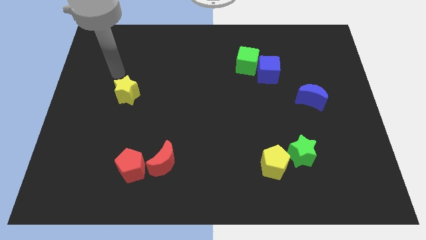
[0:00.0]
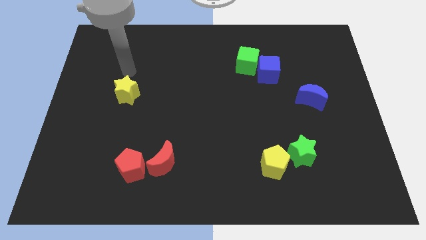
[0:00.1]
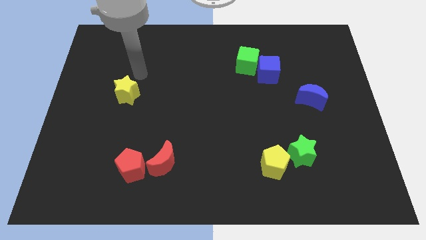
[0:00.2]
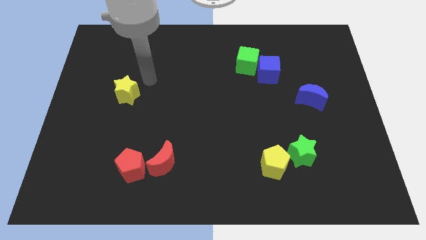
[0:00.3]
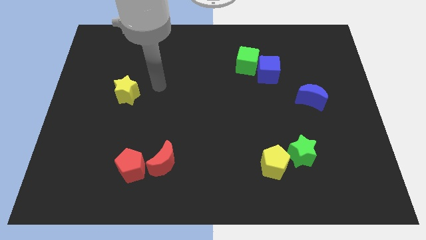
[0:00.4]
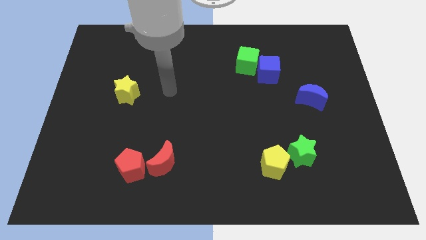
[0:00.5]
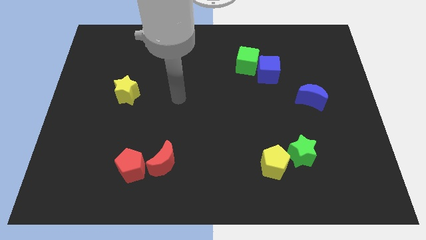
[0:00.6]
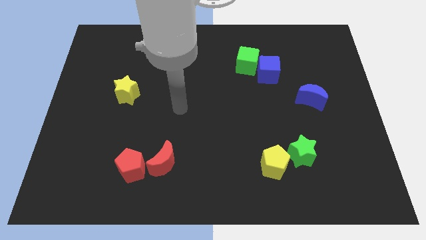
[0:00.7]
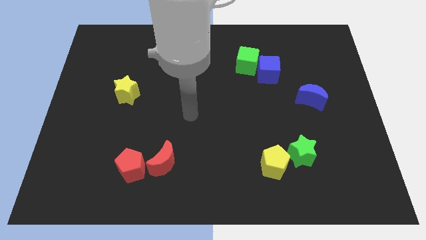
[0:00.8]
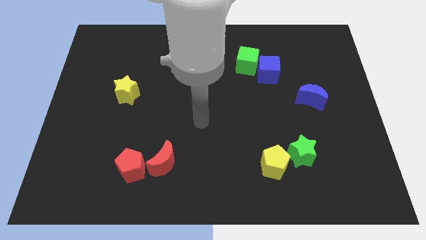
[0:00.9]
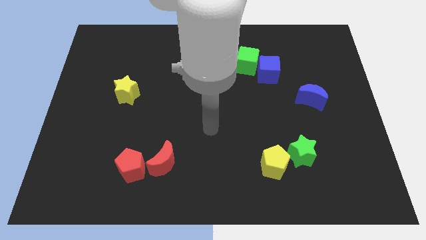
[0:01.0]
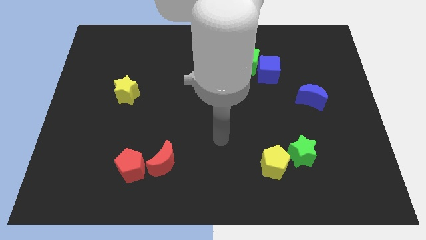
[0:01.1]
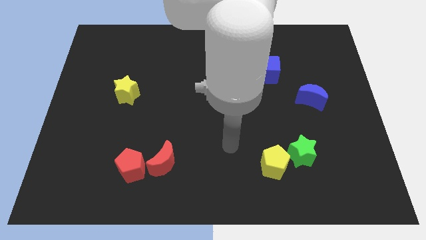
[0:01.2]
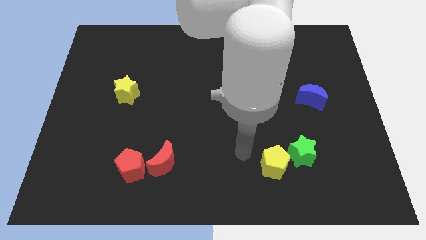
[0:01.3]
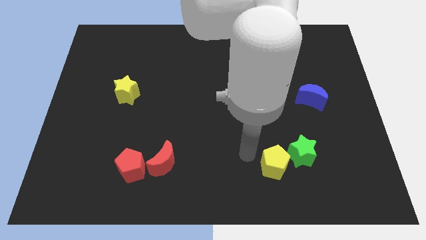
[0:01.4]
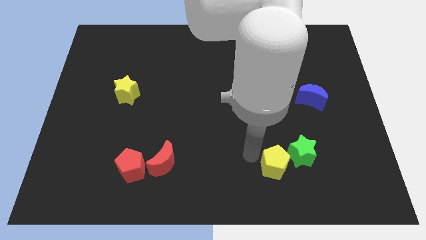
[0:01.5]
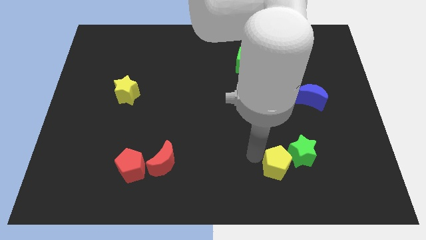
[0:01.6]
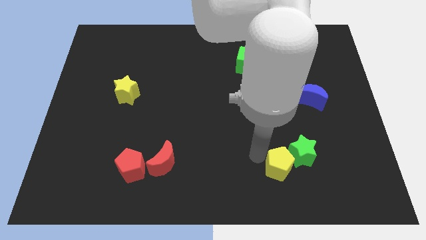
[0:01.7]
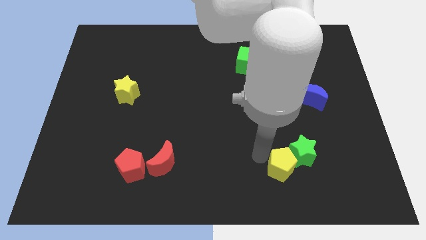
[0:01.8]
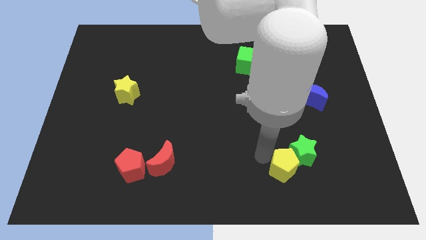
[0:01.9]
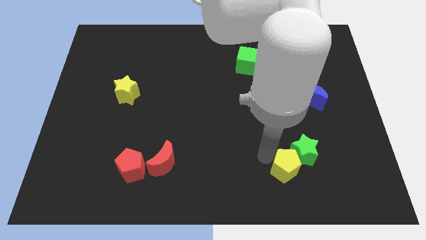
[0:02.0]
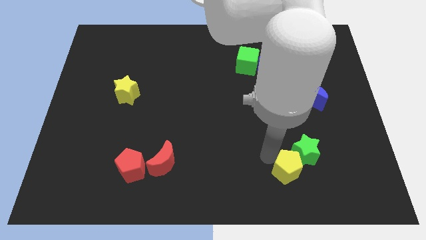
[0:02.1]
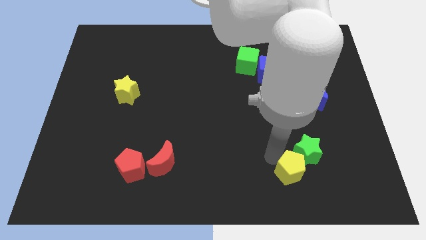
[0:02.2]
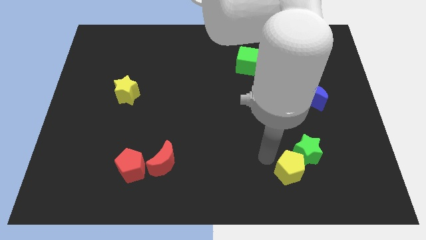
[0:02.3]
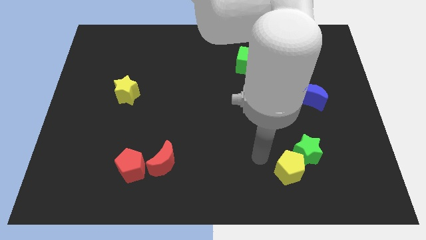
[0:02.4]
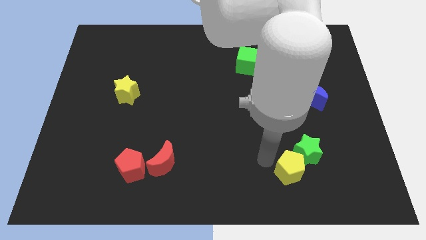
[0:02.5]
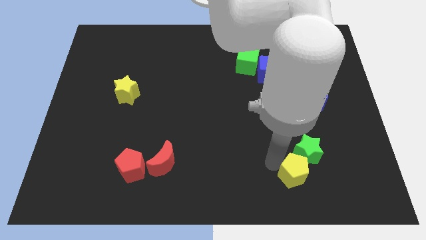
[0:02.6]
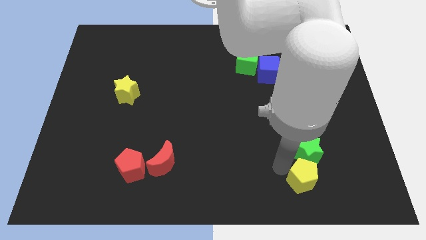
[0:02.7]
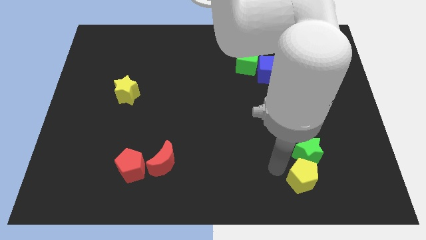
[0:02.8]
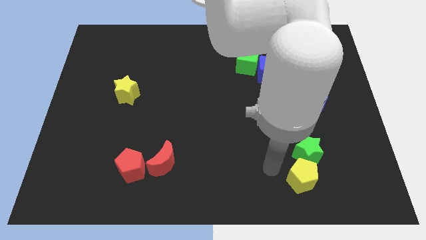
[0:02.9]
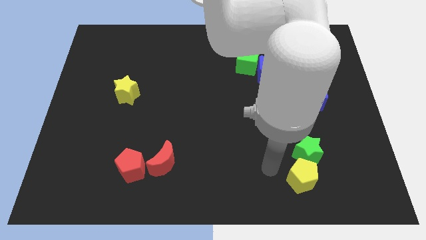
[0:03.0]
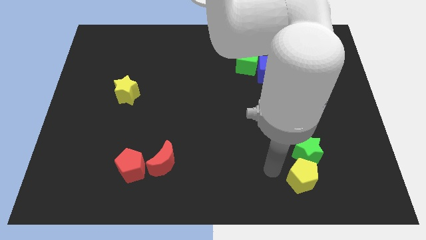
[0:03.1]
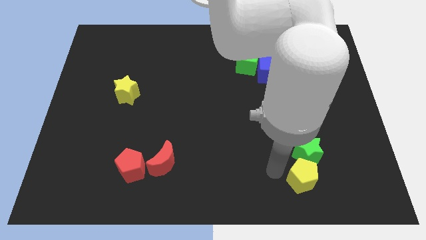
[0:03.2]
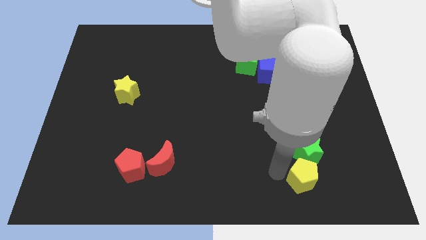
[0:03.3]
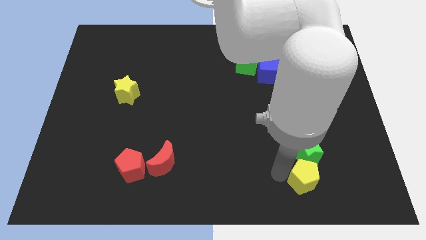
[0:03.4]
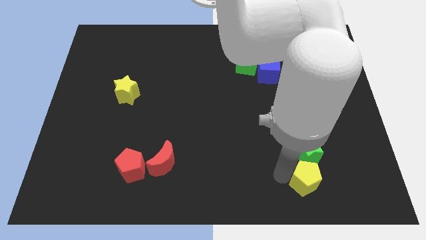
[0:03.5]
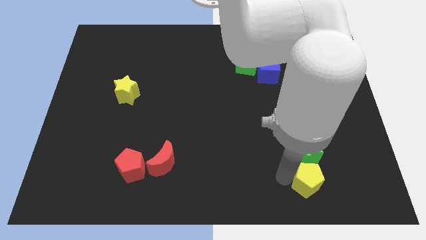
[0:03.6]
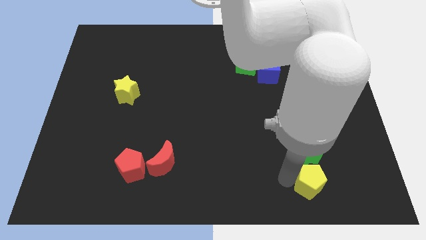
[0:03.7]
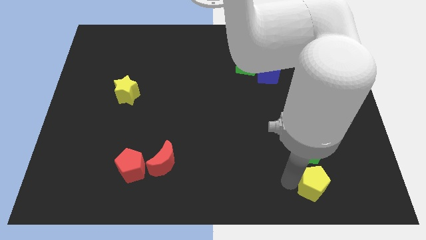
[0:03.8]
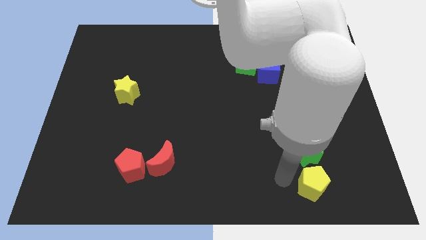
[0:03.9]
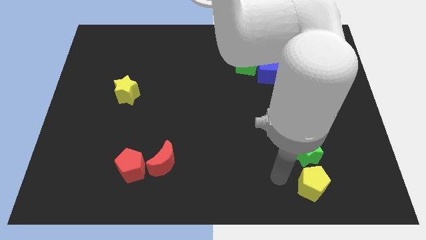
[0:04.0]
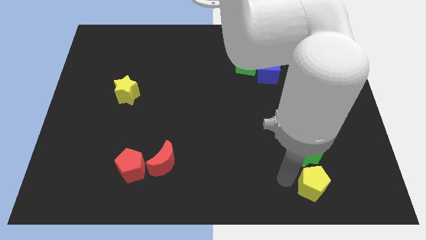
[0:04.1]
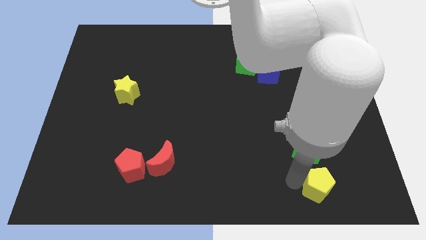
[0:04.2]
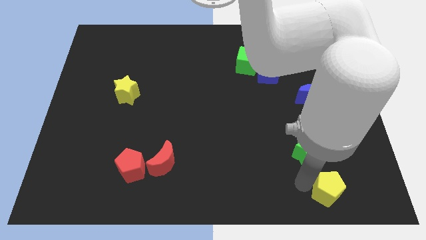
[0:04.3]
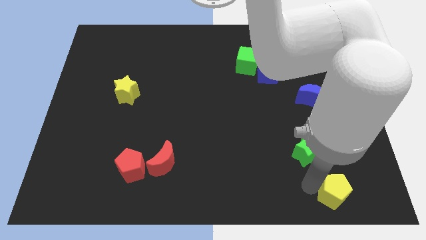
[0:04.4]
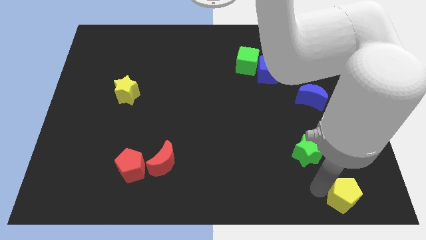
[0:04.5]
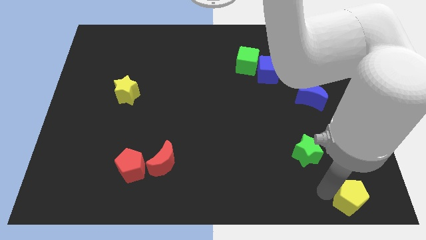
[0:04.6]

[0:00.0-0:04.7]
slide the yellow pentagon to the lower right corner

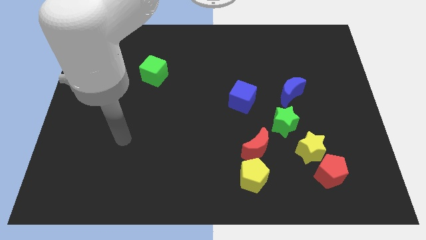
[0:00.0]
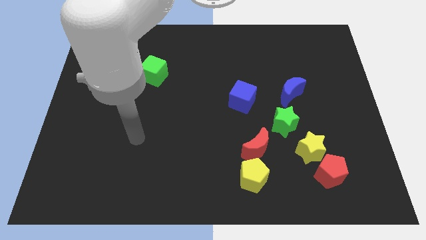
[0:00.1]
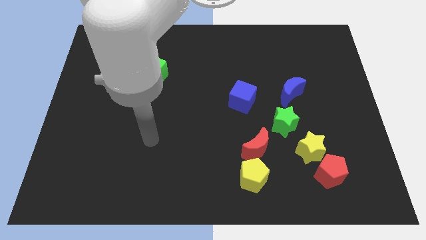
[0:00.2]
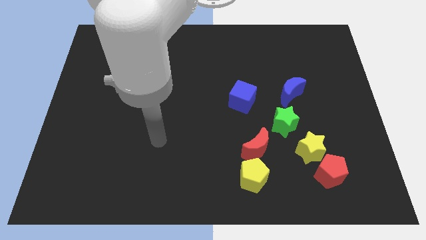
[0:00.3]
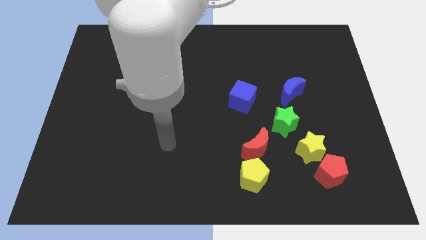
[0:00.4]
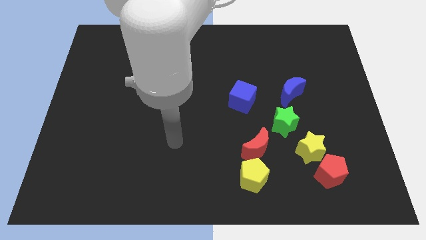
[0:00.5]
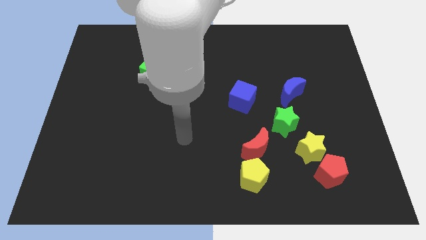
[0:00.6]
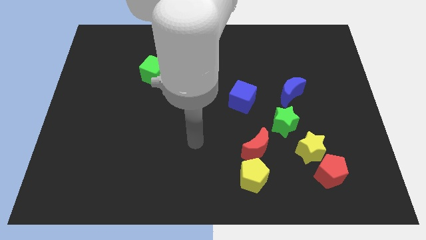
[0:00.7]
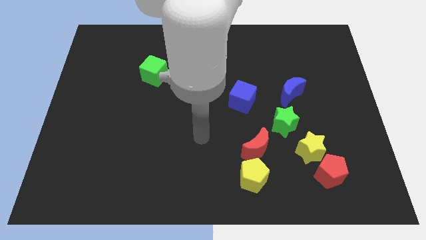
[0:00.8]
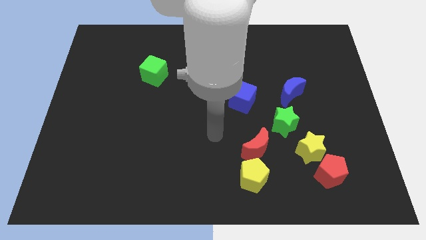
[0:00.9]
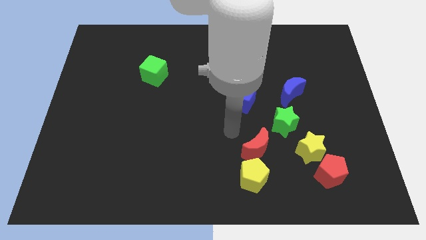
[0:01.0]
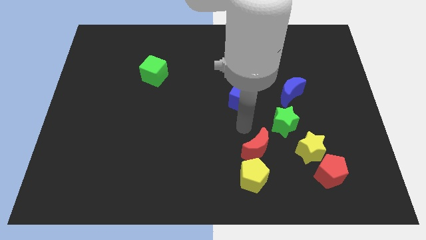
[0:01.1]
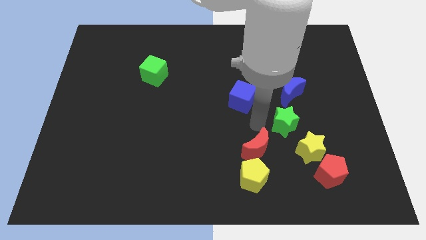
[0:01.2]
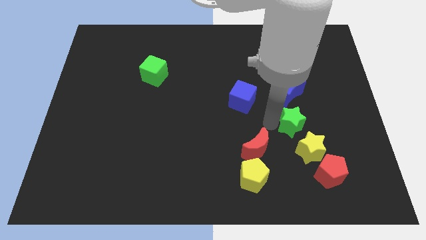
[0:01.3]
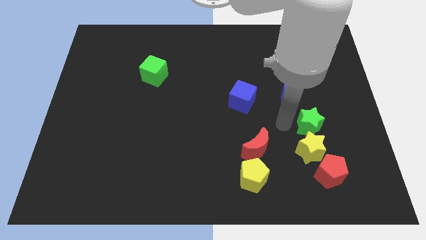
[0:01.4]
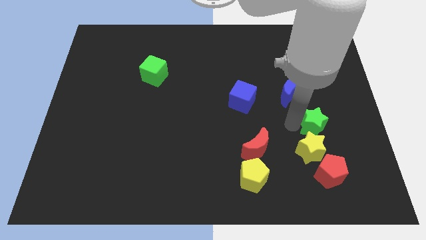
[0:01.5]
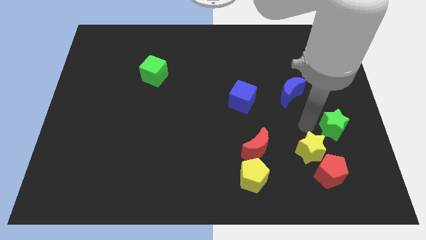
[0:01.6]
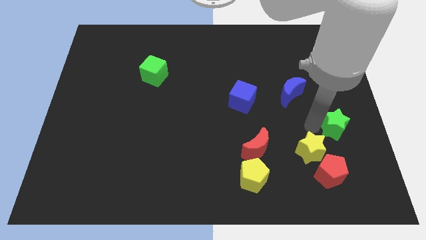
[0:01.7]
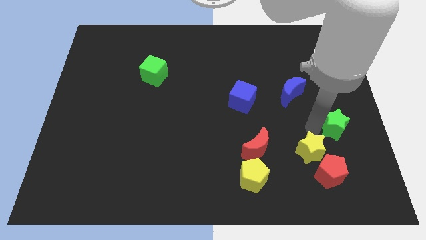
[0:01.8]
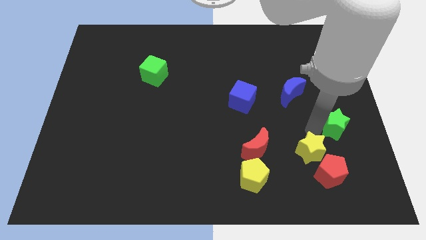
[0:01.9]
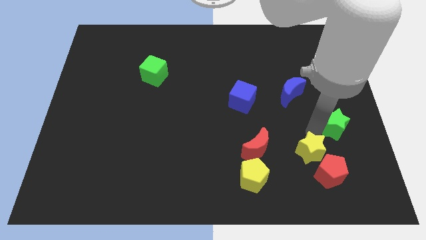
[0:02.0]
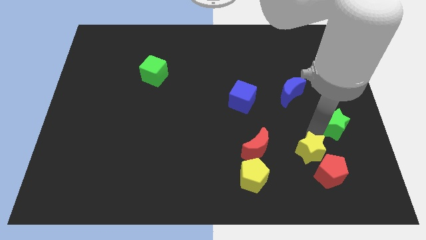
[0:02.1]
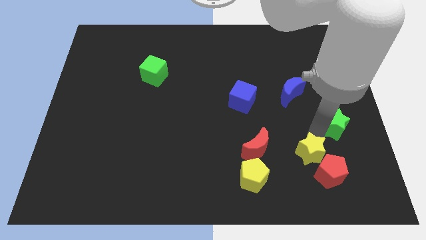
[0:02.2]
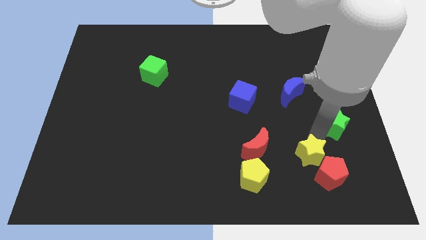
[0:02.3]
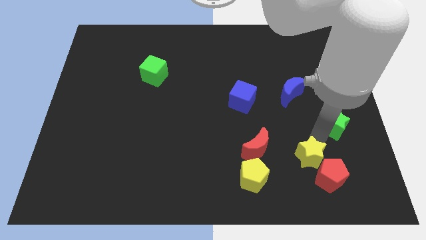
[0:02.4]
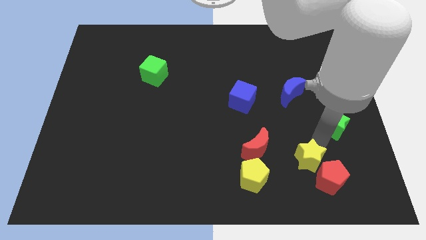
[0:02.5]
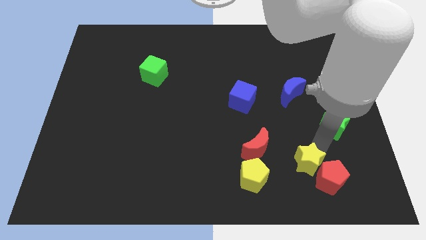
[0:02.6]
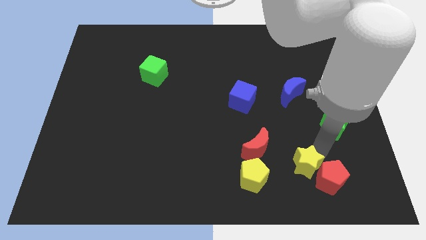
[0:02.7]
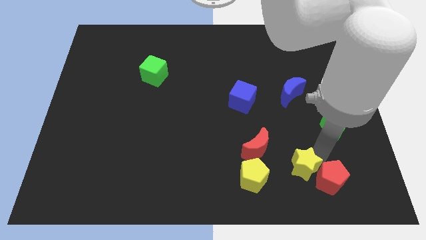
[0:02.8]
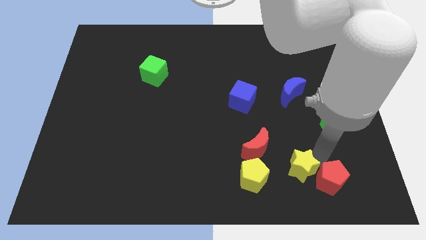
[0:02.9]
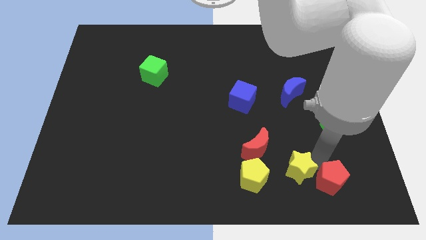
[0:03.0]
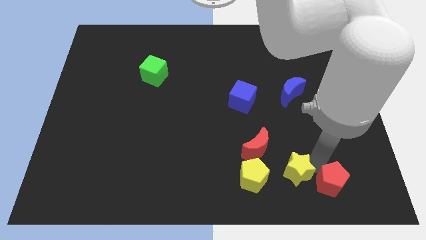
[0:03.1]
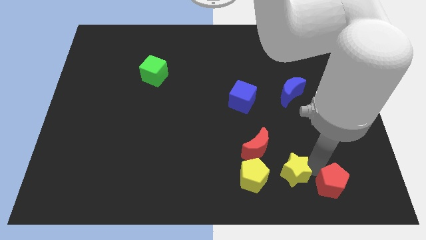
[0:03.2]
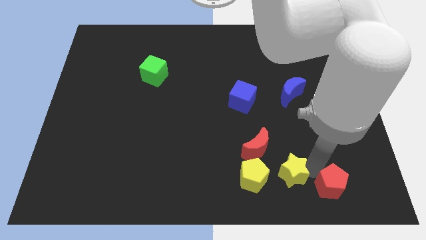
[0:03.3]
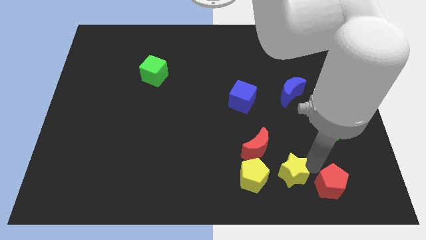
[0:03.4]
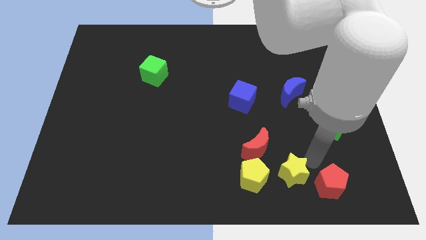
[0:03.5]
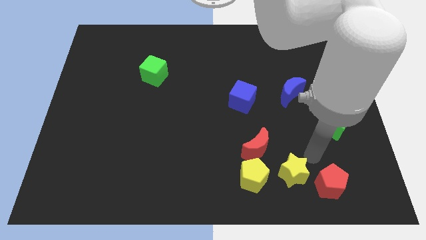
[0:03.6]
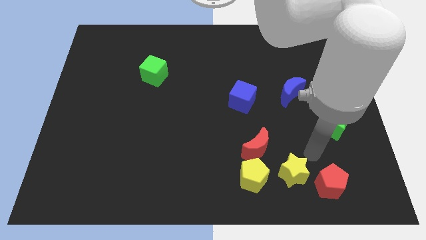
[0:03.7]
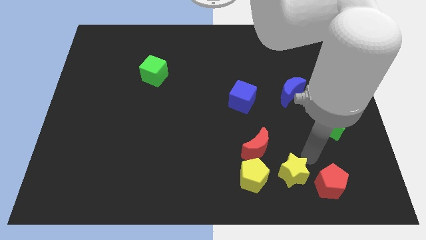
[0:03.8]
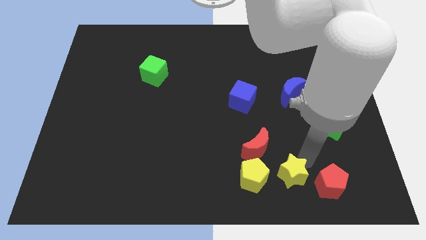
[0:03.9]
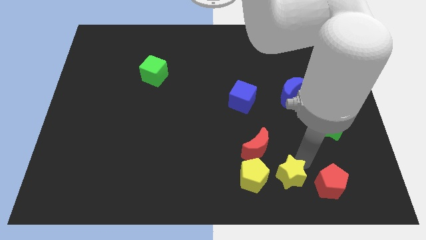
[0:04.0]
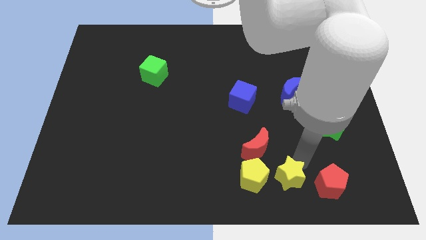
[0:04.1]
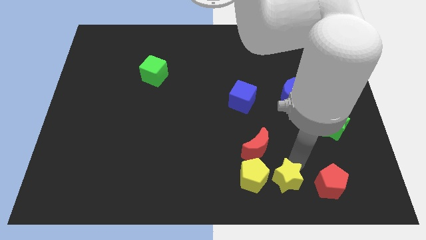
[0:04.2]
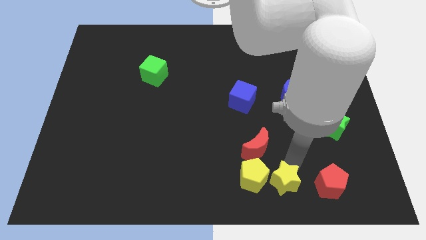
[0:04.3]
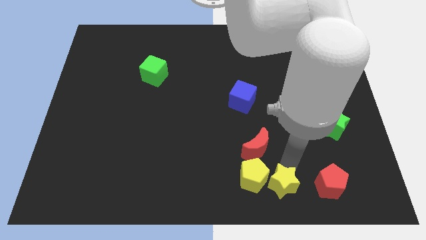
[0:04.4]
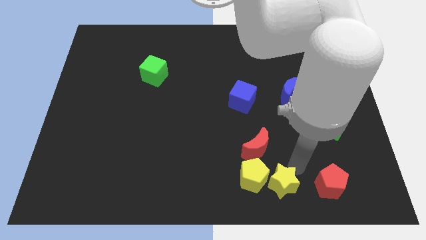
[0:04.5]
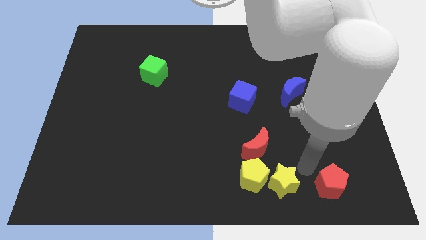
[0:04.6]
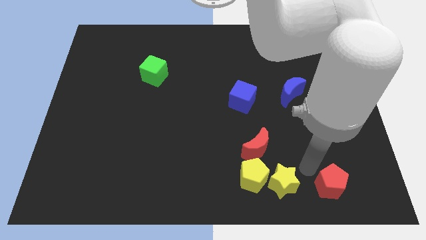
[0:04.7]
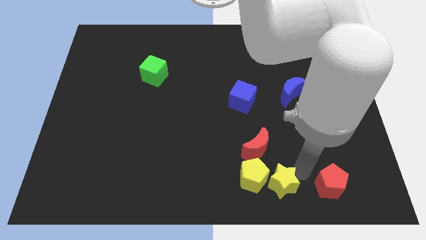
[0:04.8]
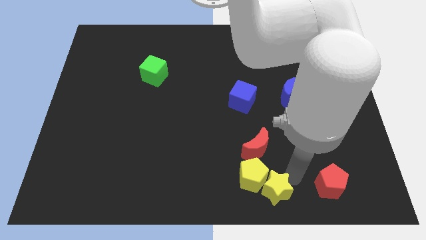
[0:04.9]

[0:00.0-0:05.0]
move the yellow star to the bottom
